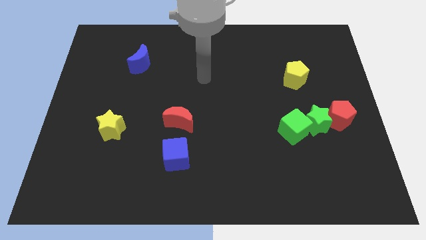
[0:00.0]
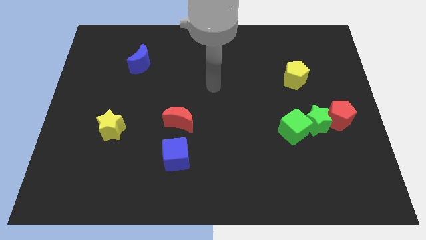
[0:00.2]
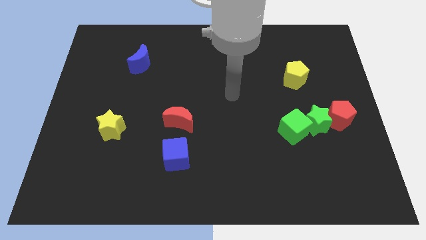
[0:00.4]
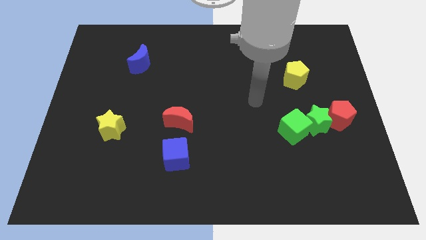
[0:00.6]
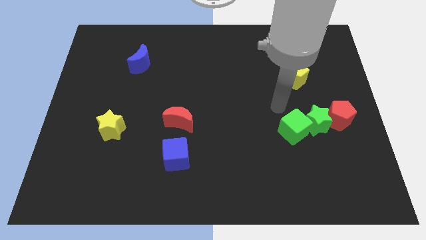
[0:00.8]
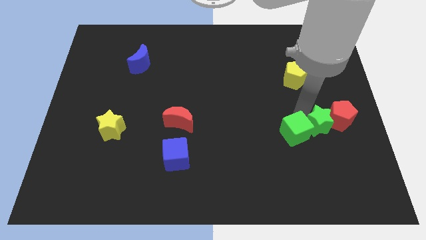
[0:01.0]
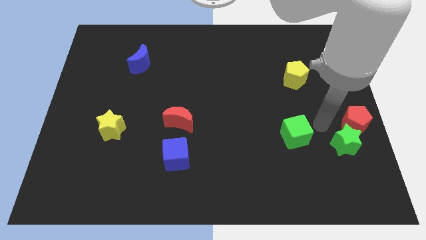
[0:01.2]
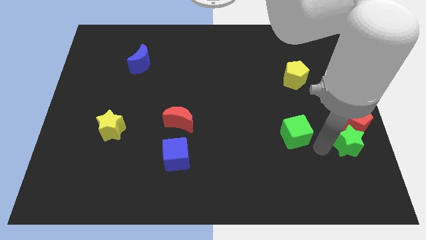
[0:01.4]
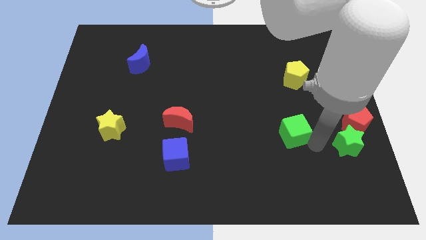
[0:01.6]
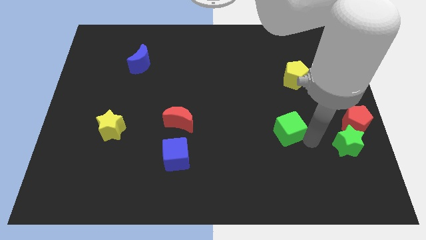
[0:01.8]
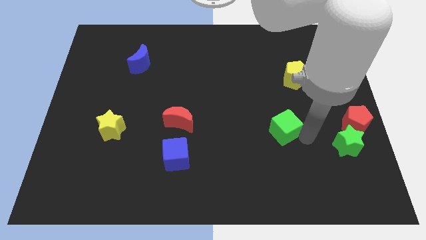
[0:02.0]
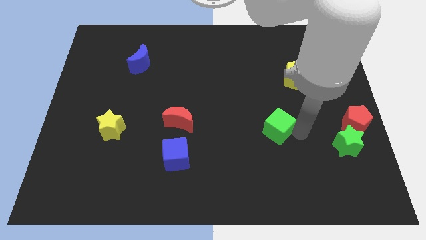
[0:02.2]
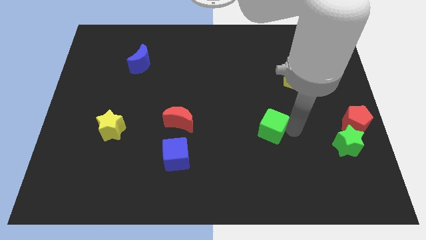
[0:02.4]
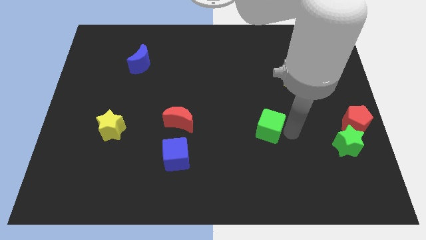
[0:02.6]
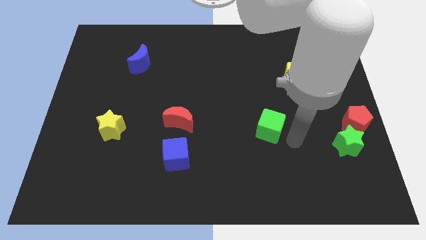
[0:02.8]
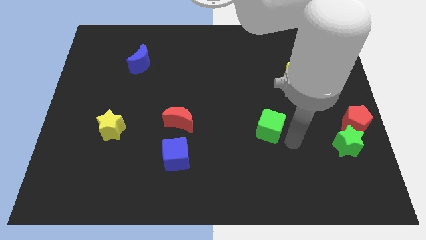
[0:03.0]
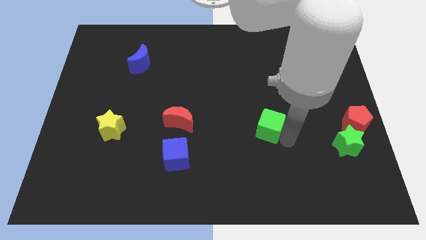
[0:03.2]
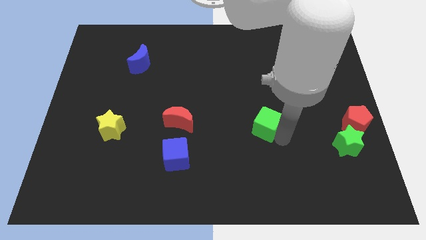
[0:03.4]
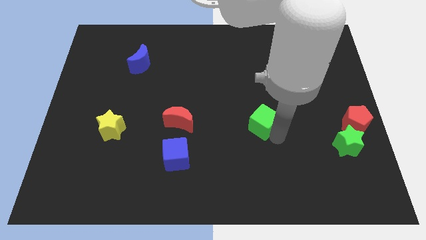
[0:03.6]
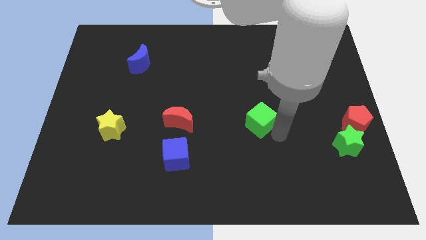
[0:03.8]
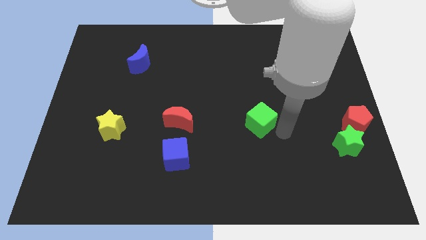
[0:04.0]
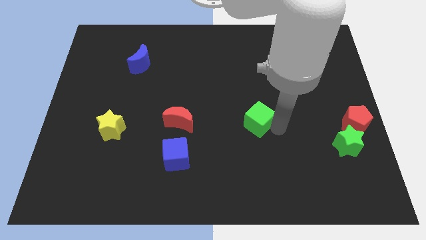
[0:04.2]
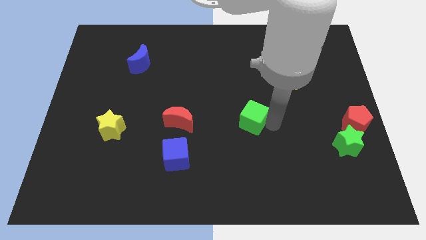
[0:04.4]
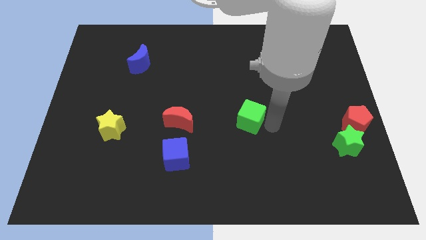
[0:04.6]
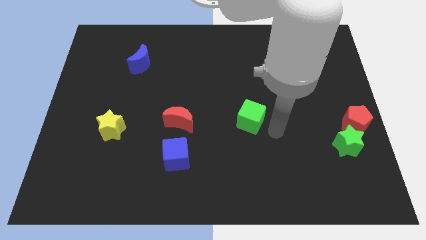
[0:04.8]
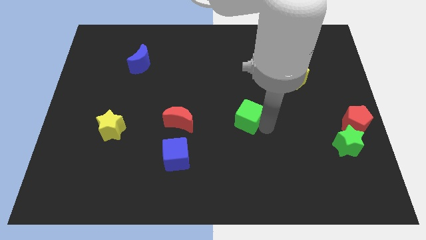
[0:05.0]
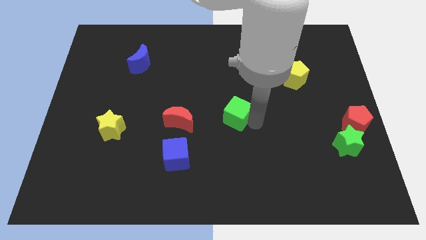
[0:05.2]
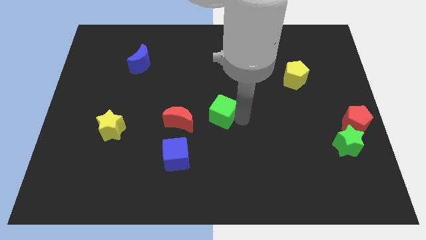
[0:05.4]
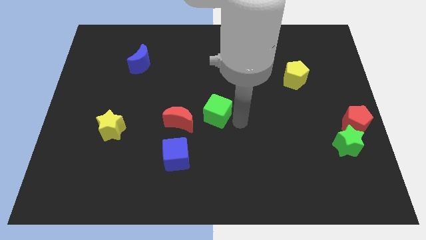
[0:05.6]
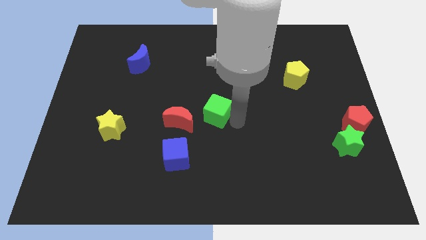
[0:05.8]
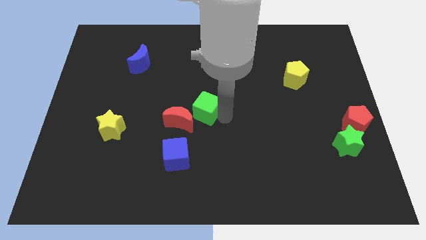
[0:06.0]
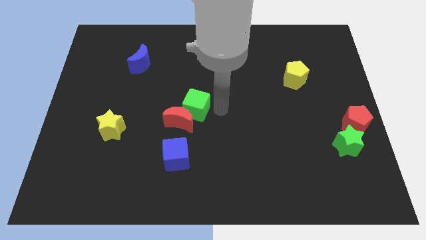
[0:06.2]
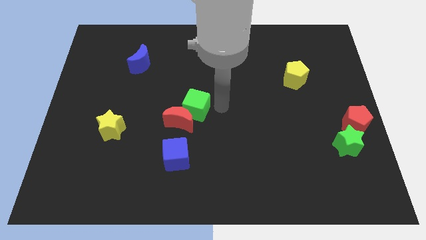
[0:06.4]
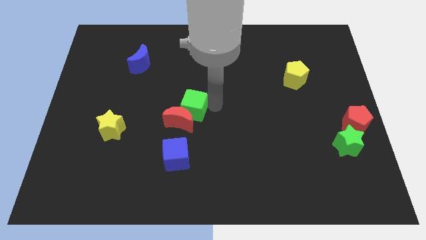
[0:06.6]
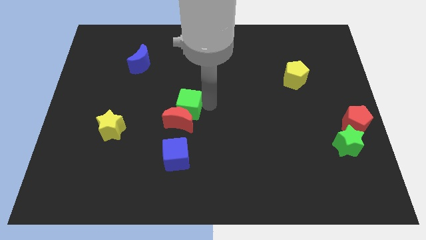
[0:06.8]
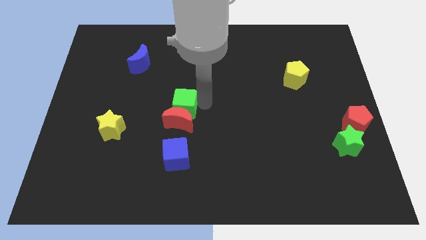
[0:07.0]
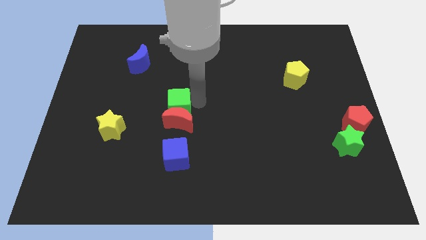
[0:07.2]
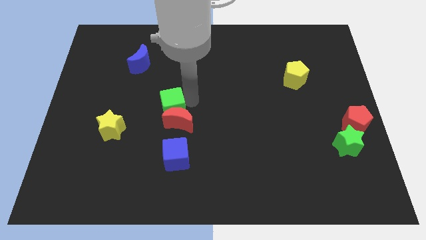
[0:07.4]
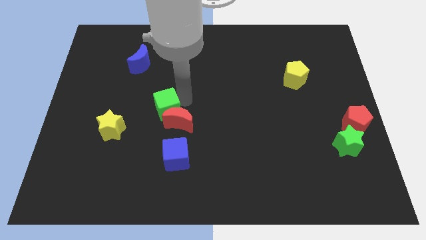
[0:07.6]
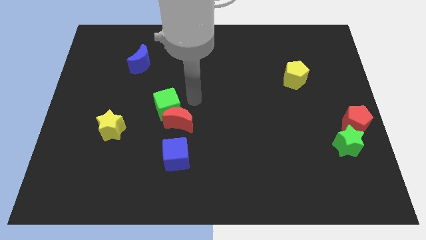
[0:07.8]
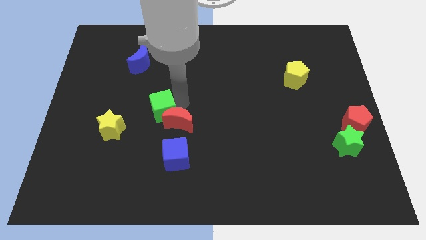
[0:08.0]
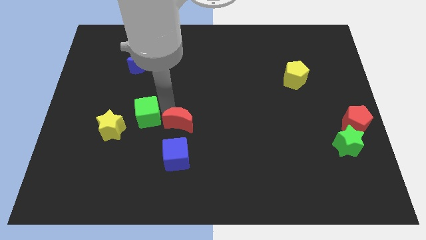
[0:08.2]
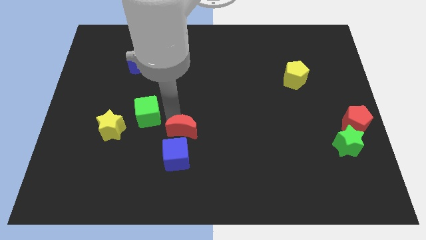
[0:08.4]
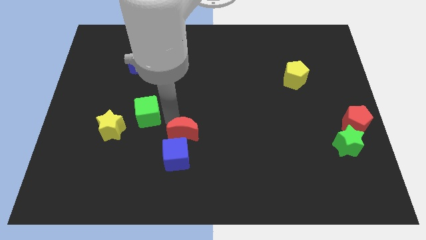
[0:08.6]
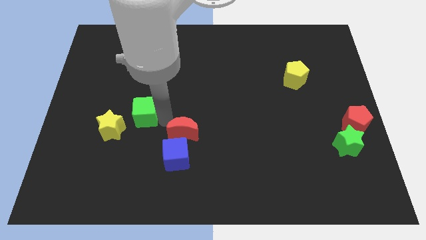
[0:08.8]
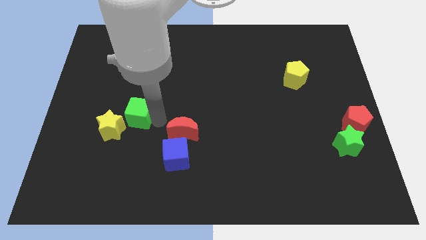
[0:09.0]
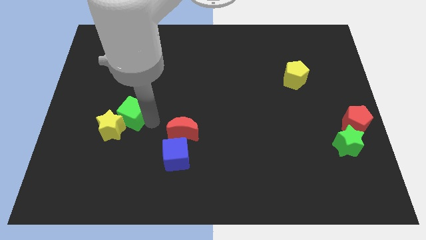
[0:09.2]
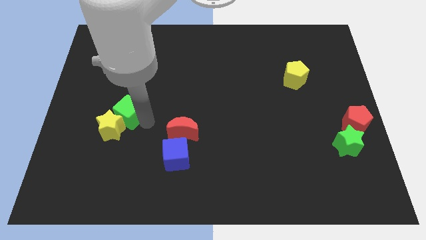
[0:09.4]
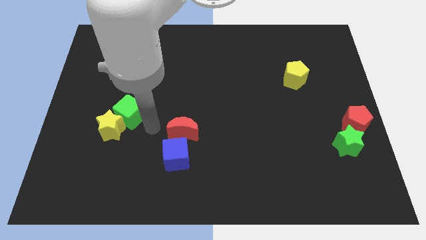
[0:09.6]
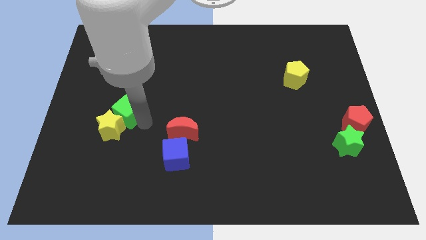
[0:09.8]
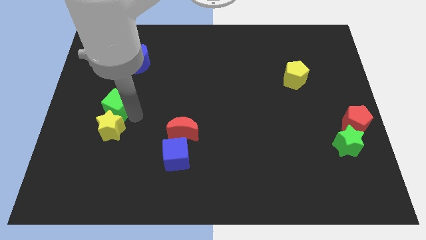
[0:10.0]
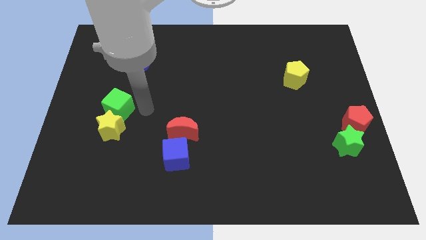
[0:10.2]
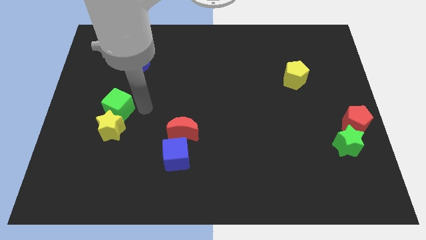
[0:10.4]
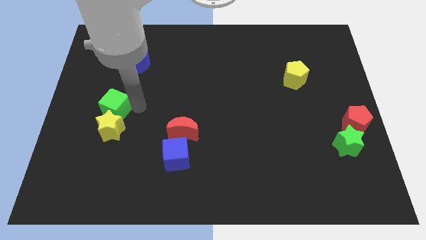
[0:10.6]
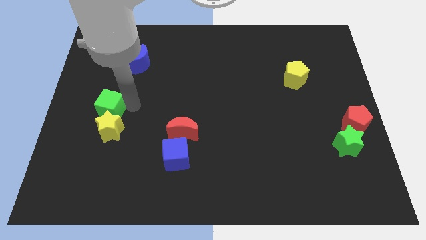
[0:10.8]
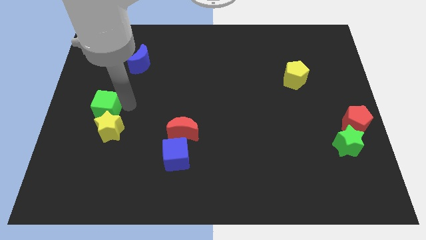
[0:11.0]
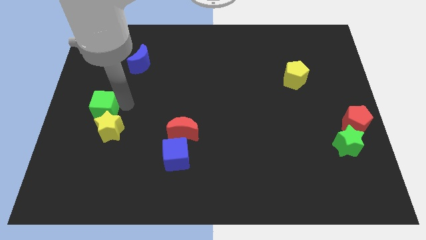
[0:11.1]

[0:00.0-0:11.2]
push the green cube to the left side

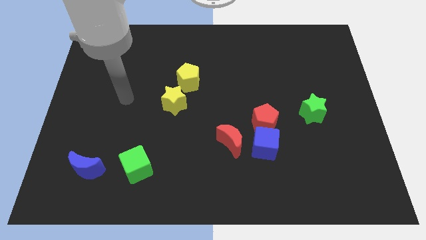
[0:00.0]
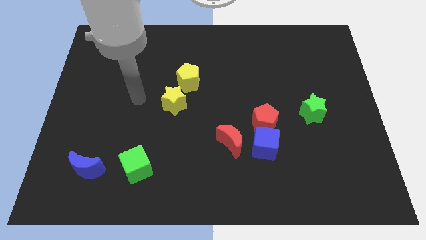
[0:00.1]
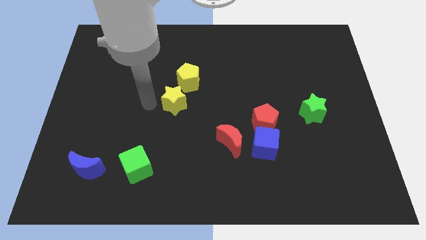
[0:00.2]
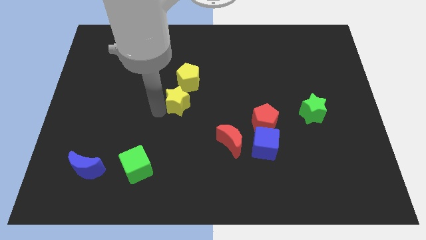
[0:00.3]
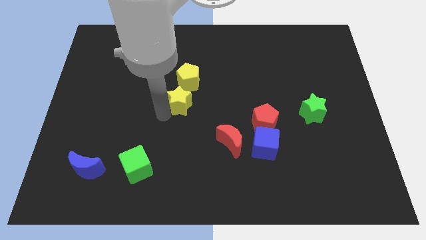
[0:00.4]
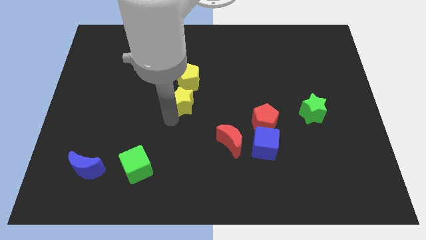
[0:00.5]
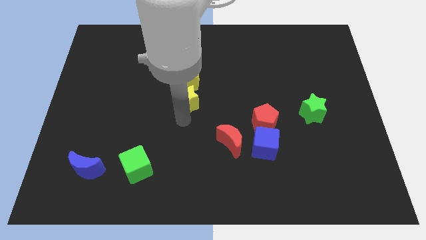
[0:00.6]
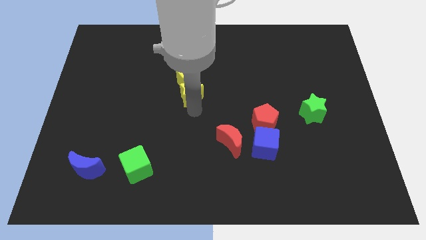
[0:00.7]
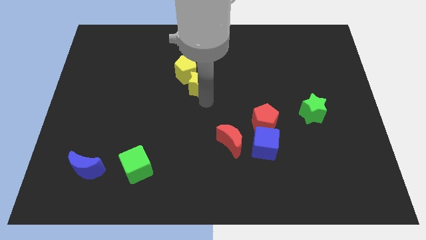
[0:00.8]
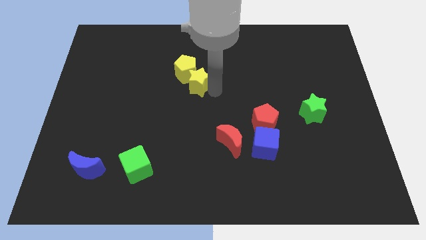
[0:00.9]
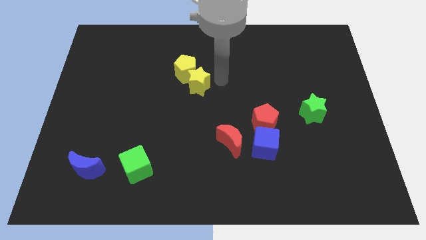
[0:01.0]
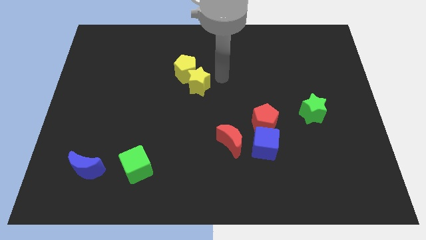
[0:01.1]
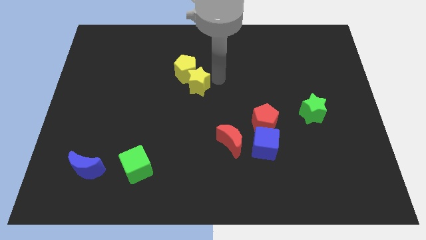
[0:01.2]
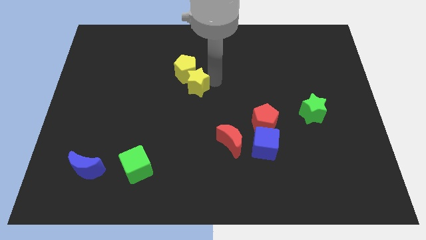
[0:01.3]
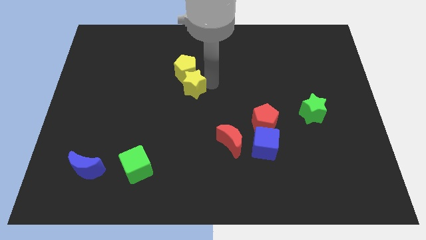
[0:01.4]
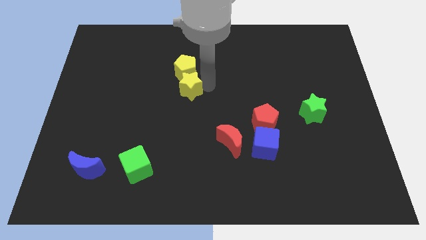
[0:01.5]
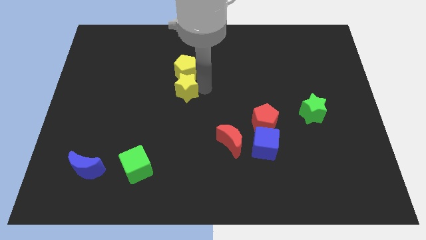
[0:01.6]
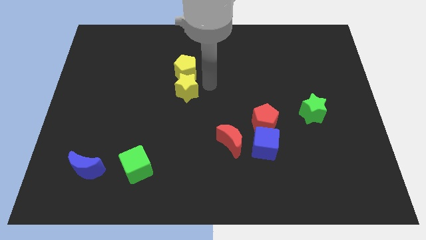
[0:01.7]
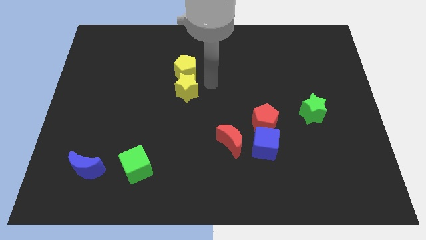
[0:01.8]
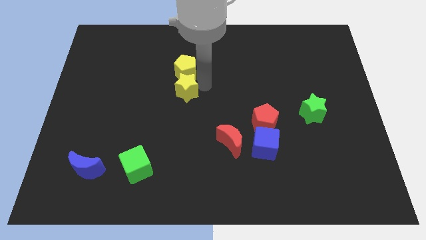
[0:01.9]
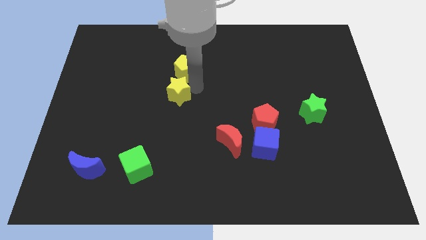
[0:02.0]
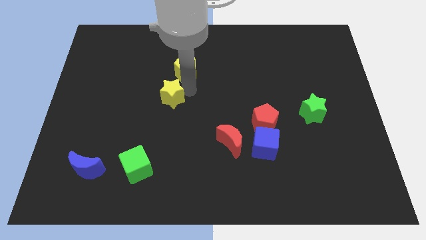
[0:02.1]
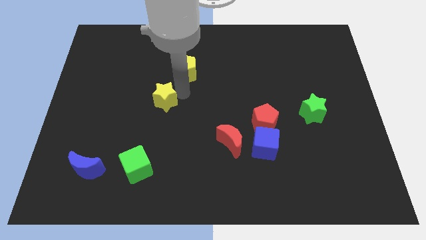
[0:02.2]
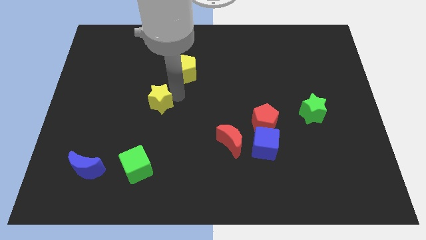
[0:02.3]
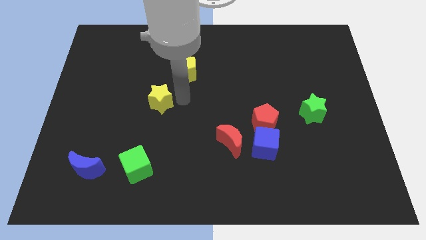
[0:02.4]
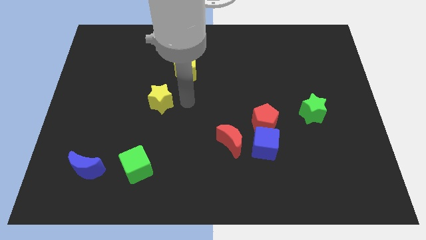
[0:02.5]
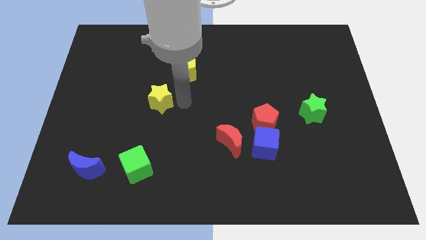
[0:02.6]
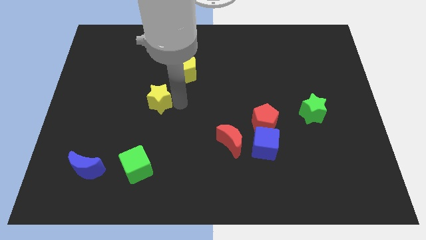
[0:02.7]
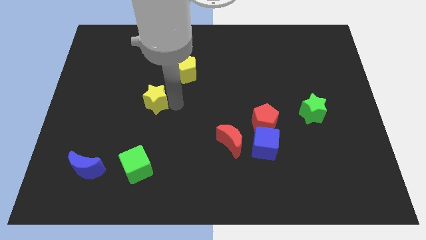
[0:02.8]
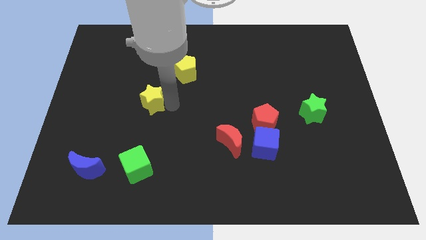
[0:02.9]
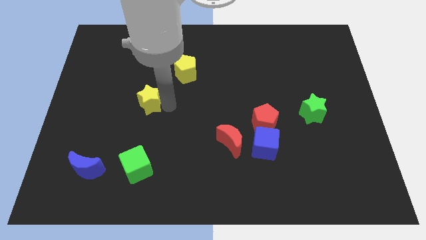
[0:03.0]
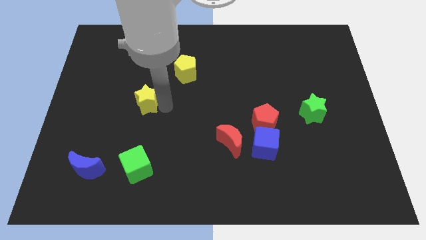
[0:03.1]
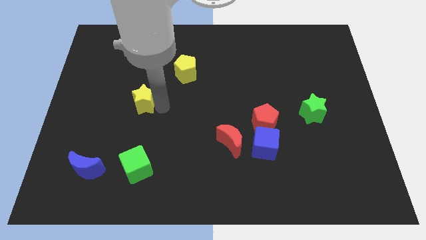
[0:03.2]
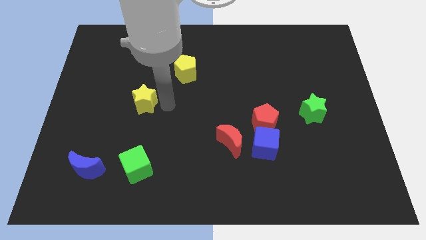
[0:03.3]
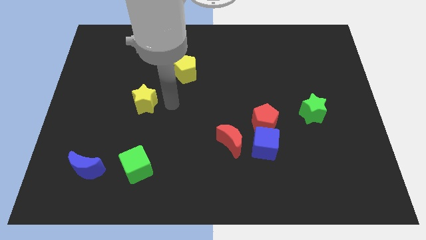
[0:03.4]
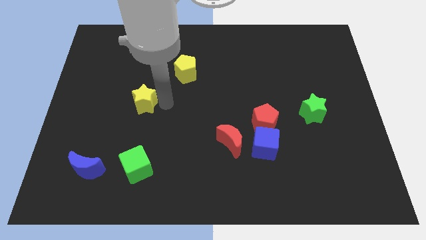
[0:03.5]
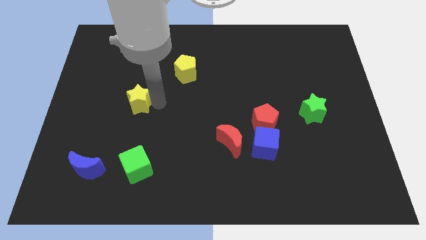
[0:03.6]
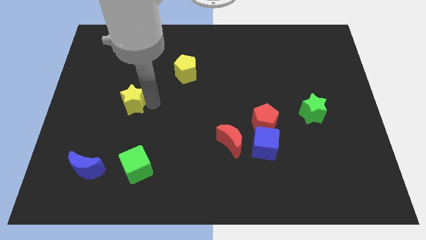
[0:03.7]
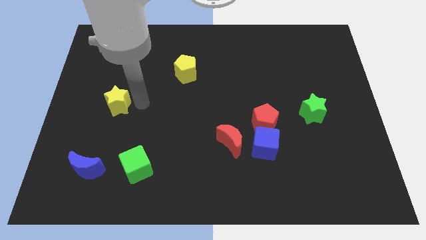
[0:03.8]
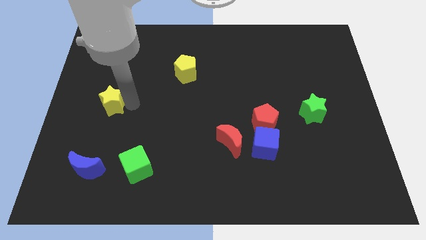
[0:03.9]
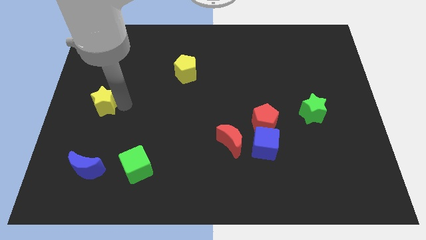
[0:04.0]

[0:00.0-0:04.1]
put the yellow star to the center left
